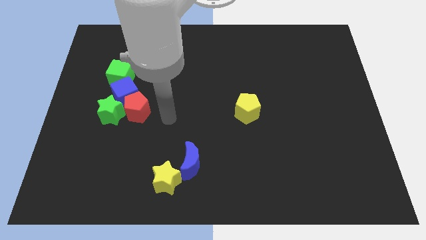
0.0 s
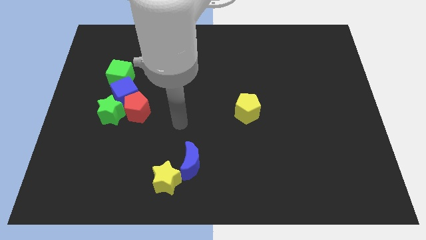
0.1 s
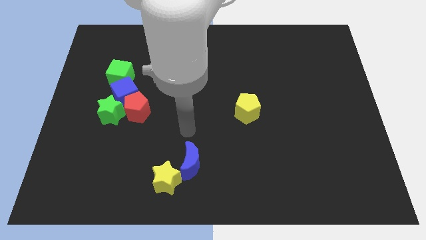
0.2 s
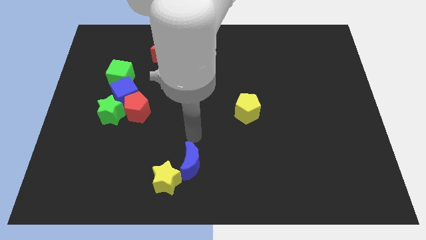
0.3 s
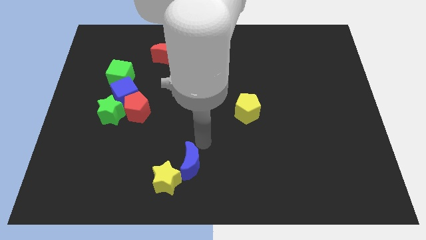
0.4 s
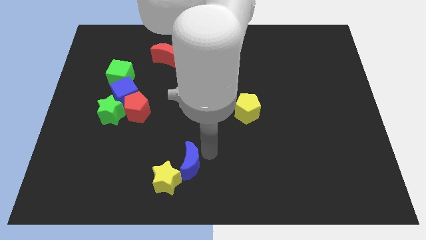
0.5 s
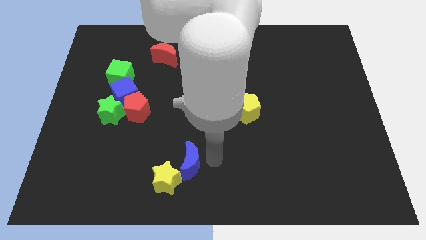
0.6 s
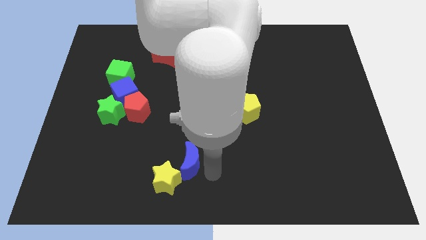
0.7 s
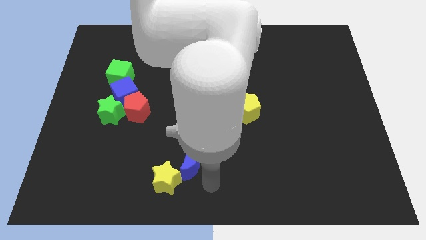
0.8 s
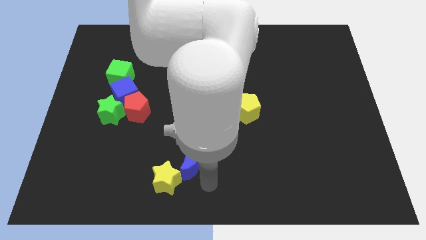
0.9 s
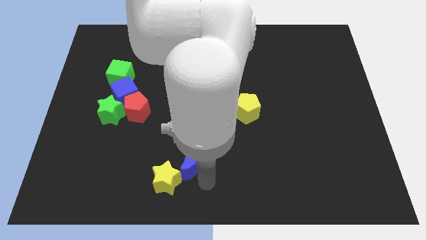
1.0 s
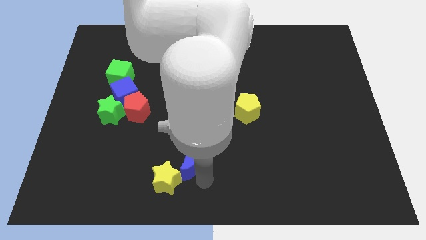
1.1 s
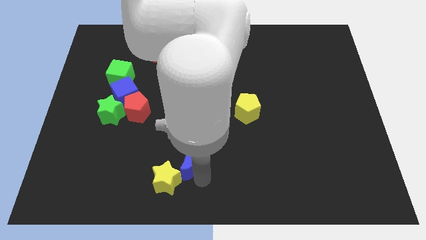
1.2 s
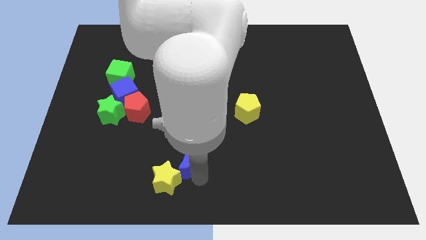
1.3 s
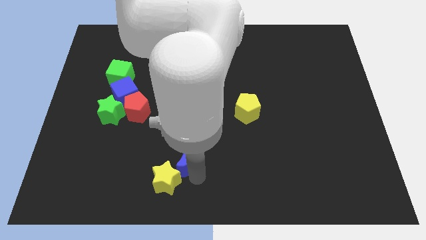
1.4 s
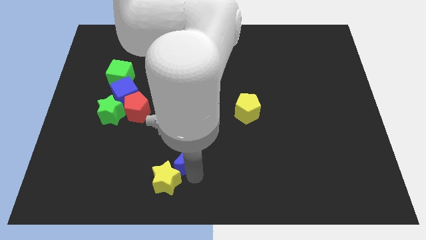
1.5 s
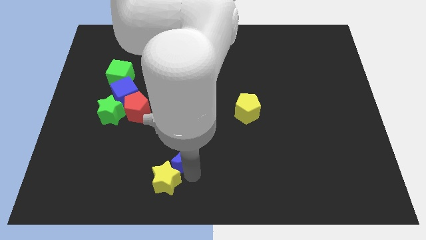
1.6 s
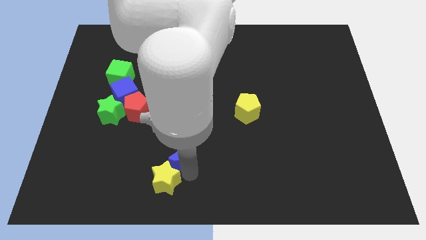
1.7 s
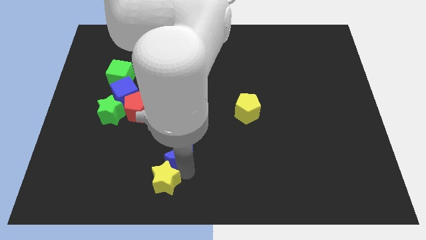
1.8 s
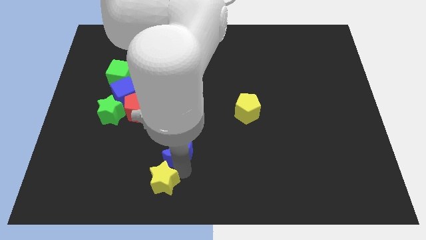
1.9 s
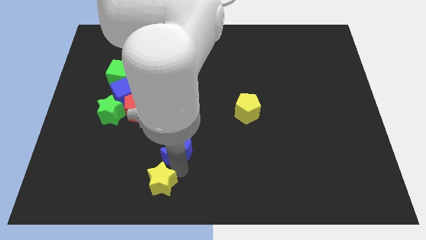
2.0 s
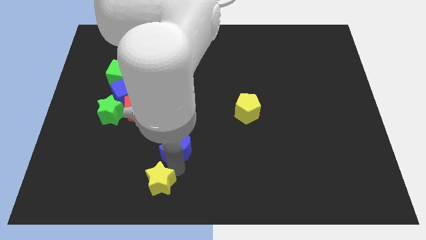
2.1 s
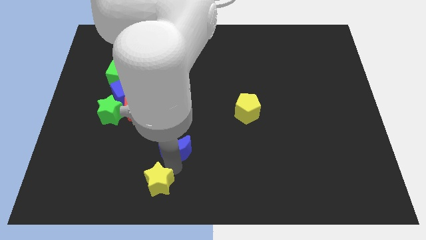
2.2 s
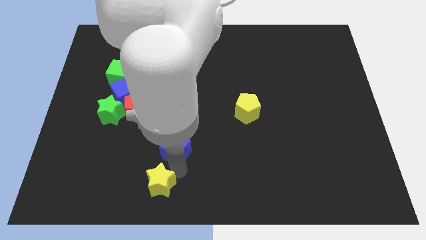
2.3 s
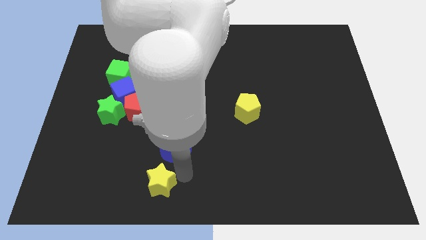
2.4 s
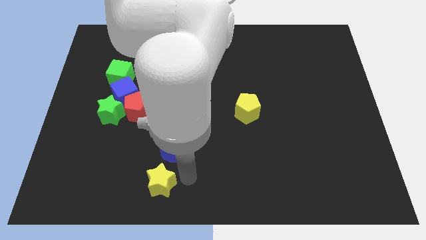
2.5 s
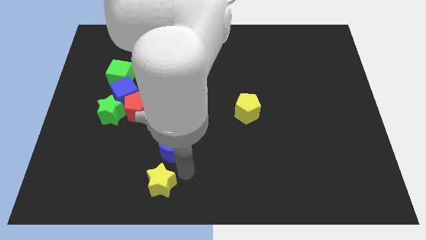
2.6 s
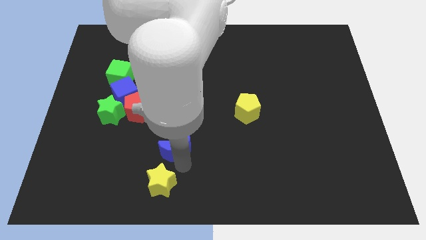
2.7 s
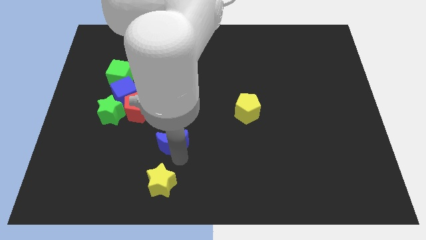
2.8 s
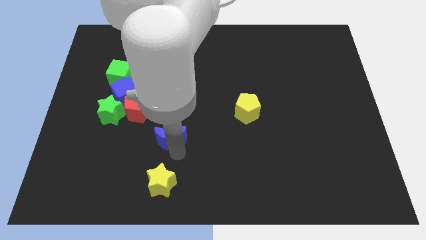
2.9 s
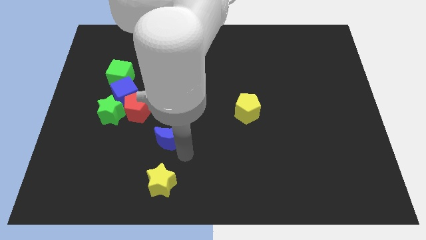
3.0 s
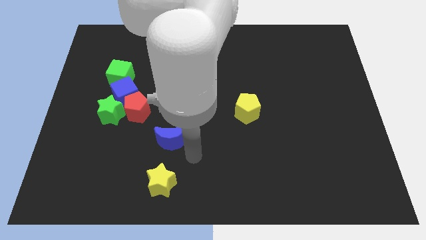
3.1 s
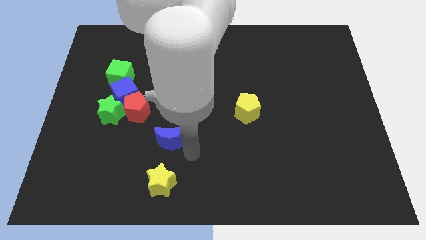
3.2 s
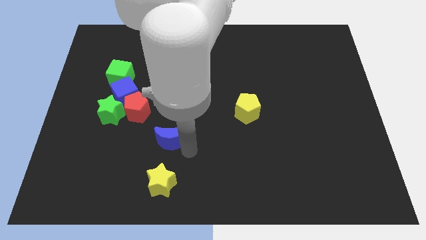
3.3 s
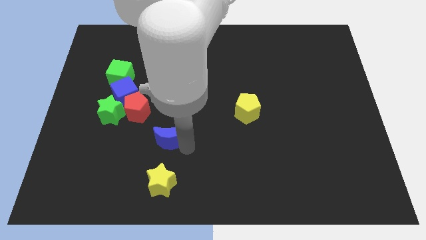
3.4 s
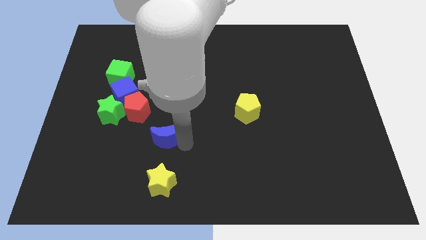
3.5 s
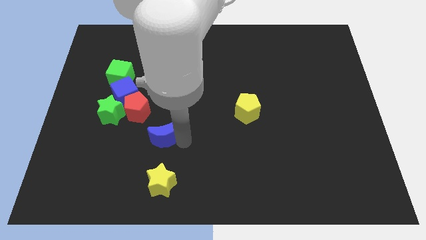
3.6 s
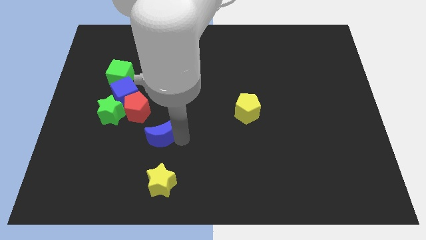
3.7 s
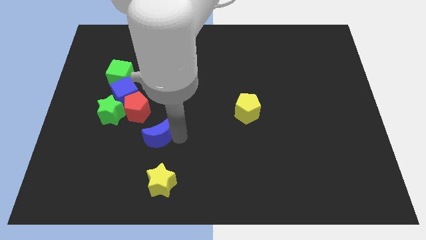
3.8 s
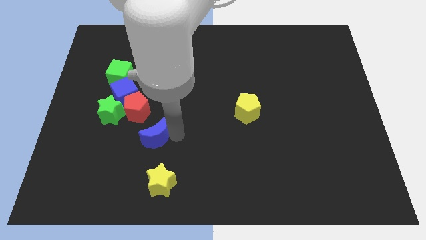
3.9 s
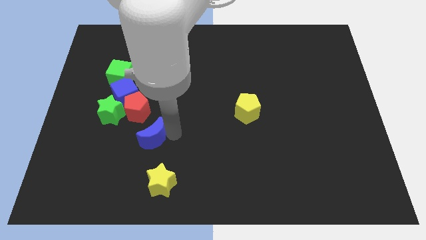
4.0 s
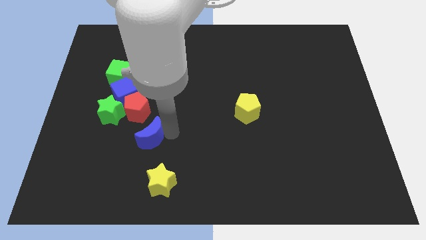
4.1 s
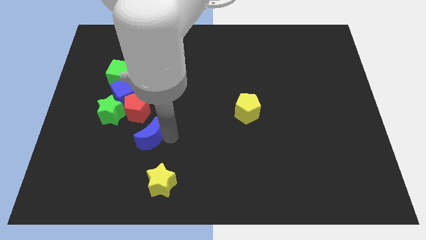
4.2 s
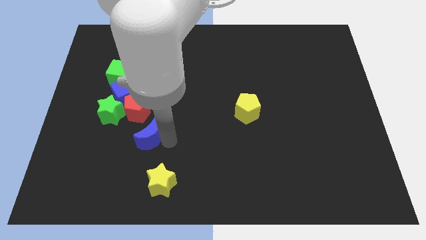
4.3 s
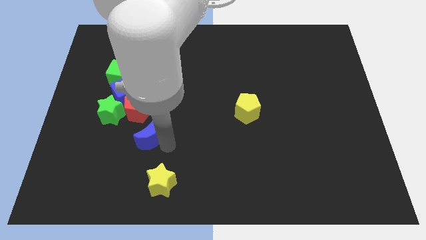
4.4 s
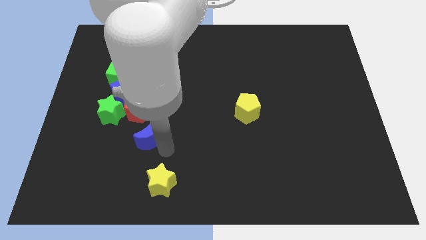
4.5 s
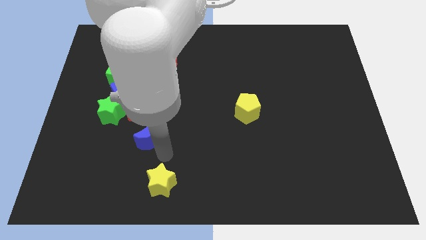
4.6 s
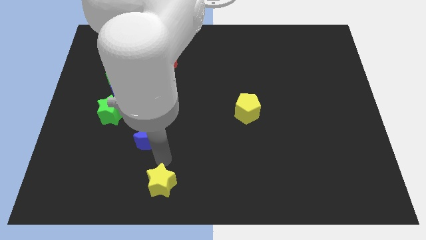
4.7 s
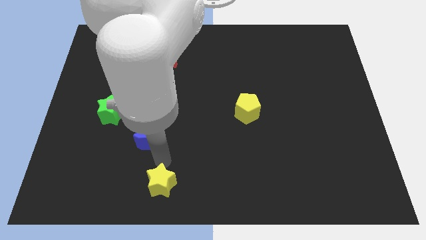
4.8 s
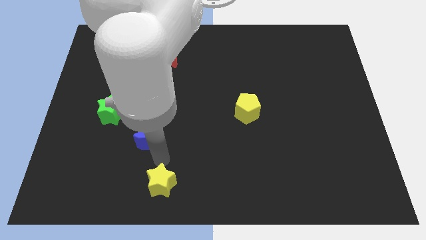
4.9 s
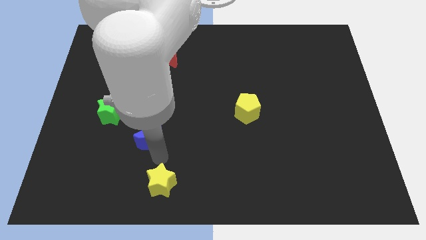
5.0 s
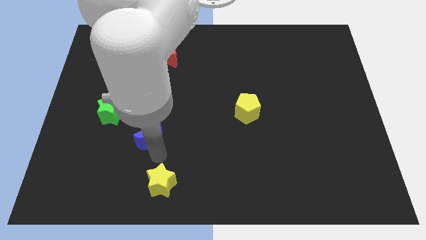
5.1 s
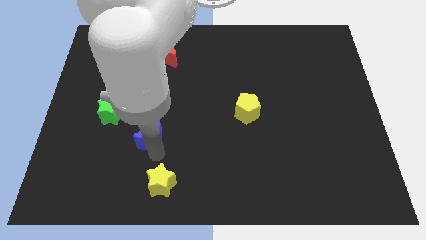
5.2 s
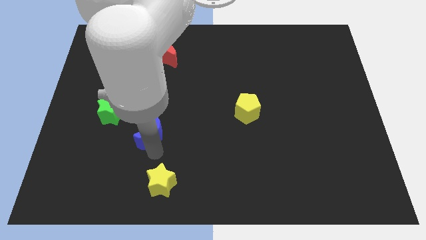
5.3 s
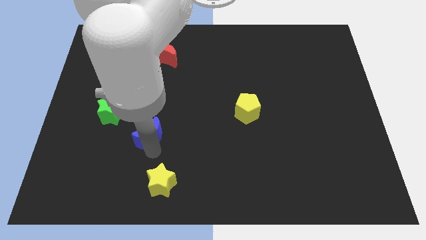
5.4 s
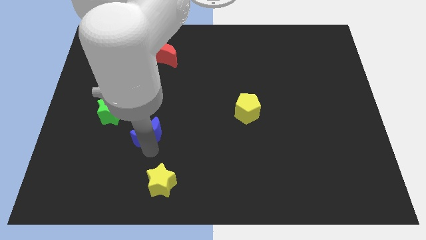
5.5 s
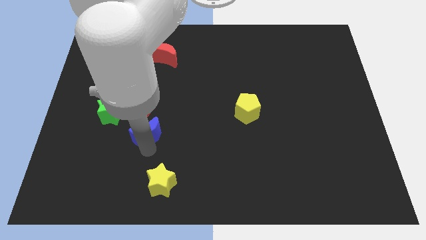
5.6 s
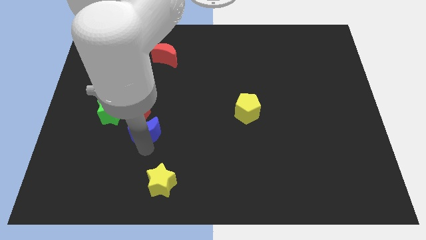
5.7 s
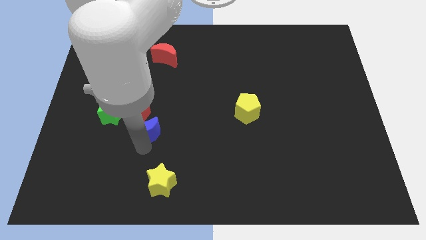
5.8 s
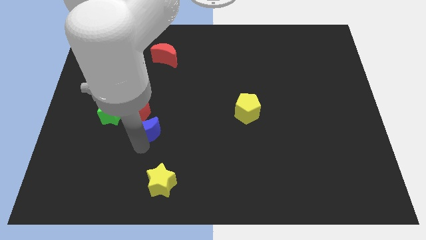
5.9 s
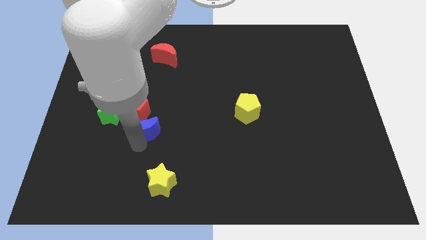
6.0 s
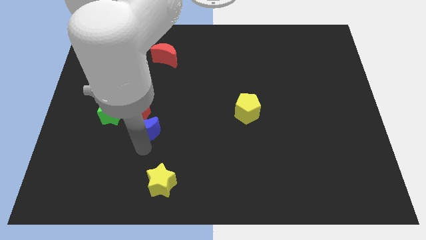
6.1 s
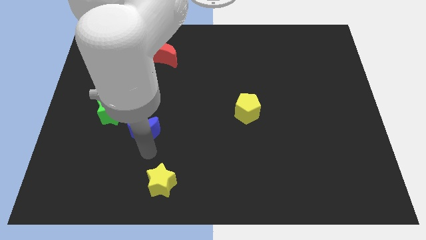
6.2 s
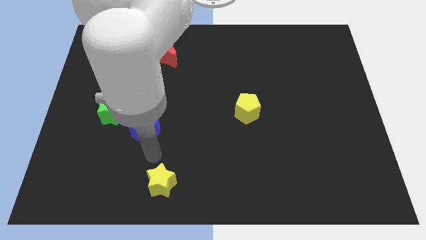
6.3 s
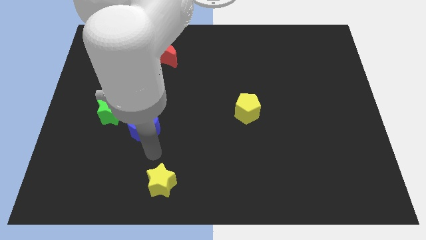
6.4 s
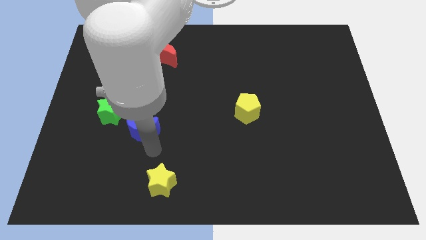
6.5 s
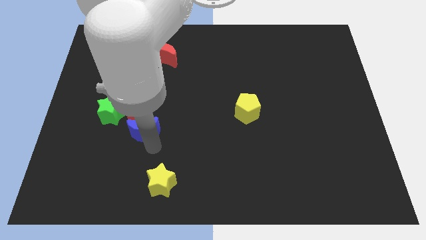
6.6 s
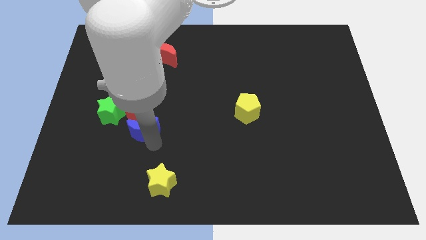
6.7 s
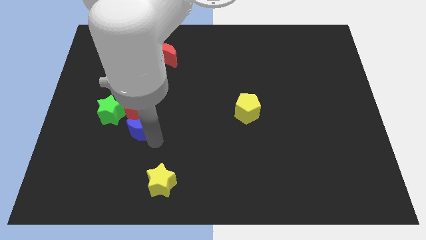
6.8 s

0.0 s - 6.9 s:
move the blue moon towards the red pentagon

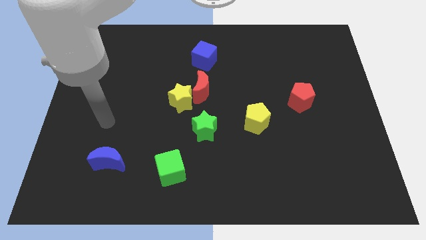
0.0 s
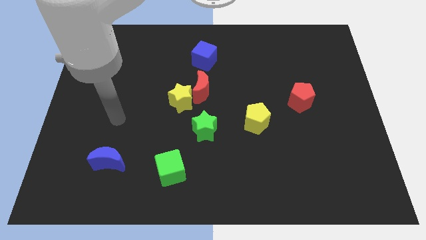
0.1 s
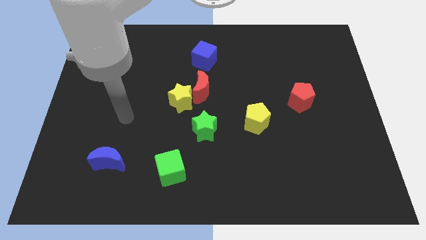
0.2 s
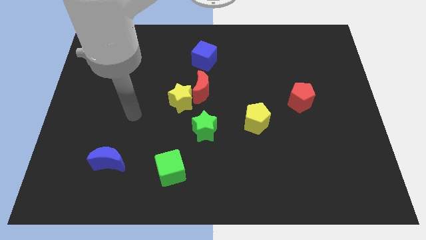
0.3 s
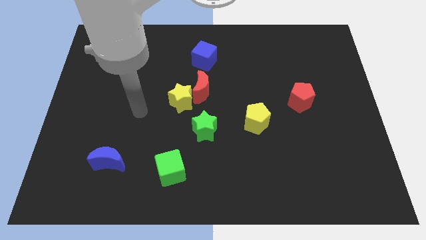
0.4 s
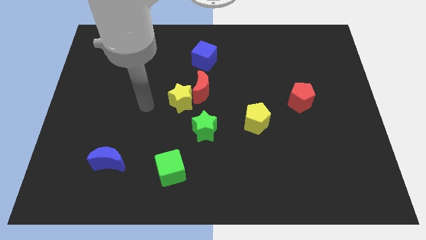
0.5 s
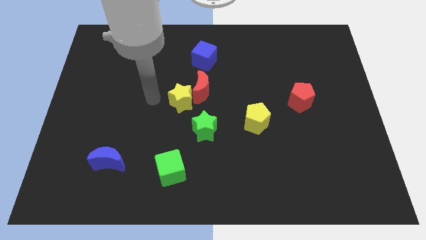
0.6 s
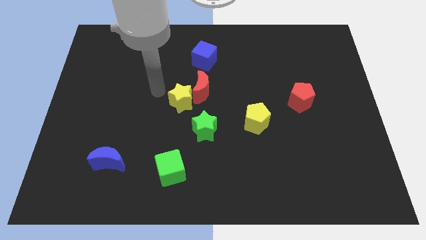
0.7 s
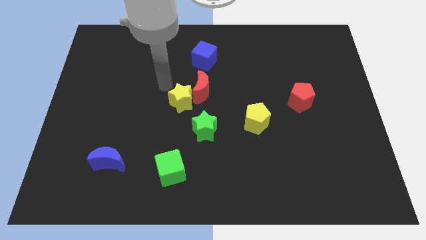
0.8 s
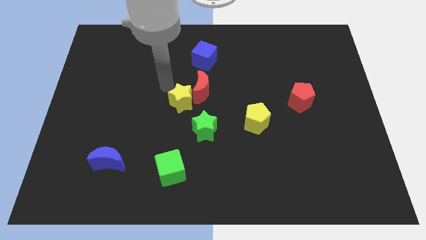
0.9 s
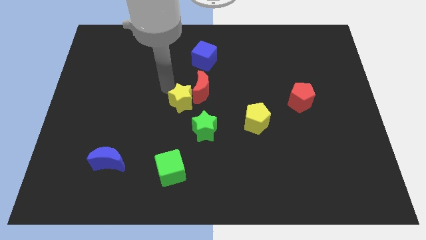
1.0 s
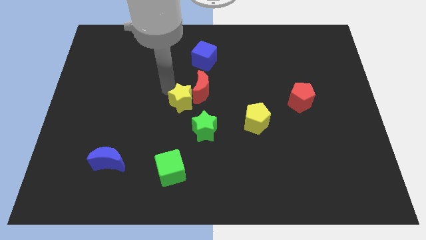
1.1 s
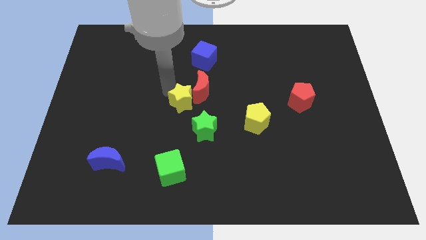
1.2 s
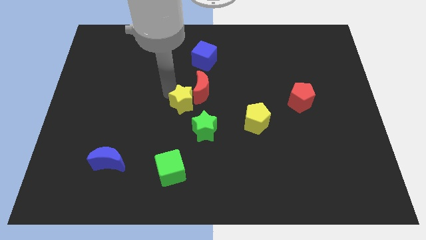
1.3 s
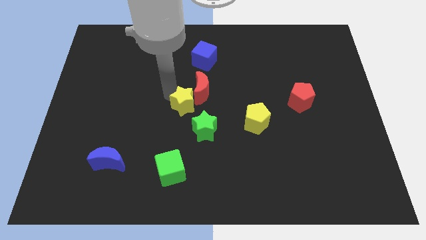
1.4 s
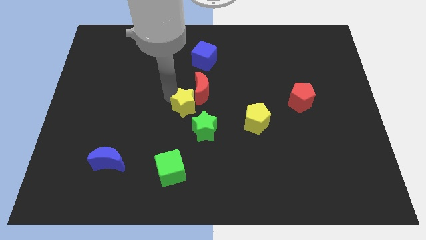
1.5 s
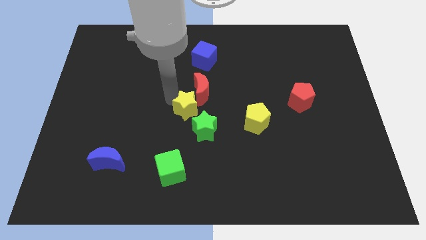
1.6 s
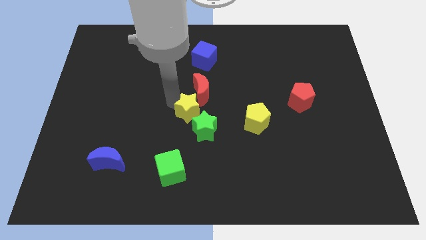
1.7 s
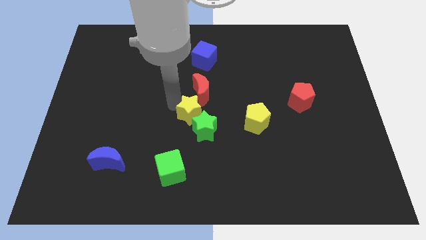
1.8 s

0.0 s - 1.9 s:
push the yellow star towards the green star
